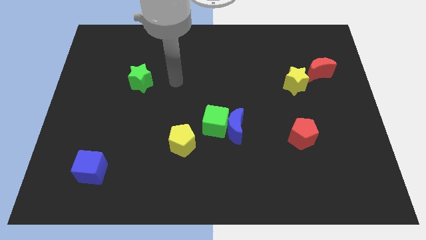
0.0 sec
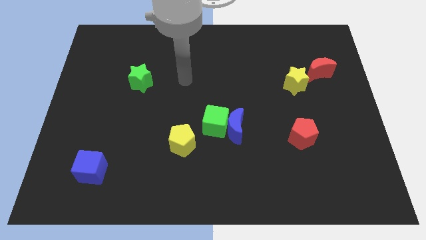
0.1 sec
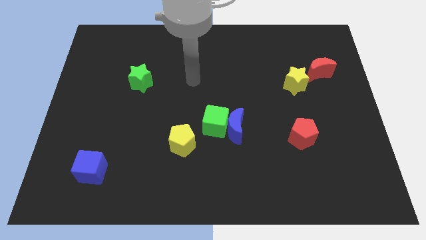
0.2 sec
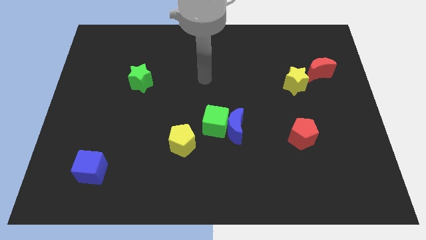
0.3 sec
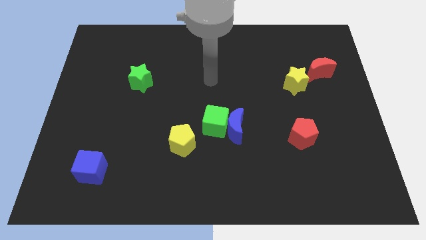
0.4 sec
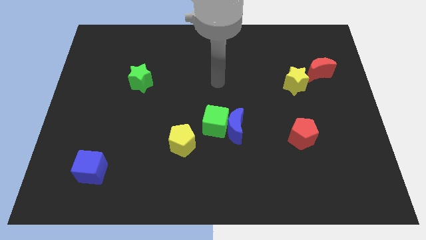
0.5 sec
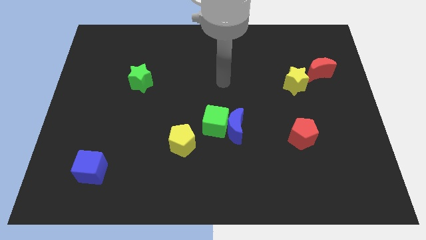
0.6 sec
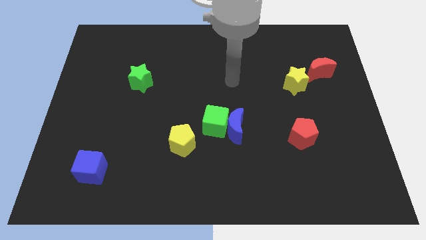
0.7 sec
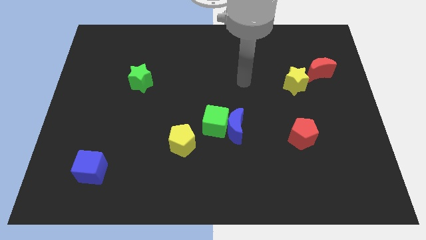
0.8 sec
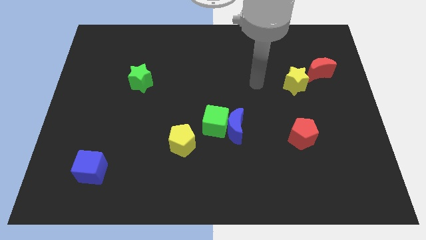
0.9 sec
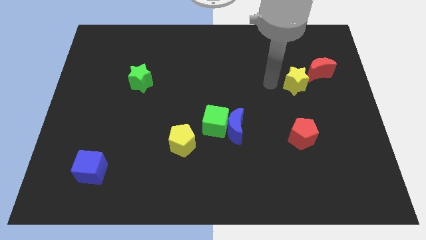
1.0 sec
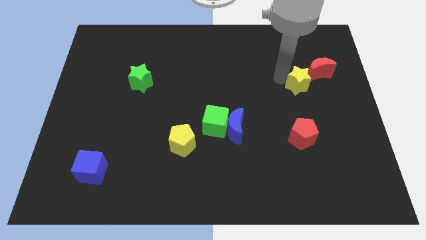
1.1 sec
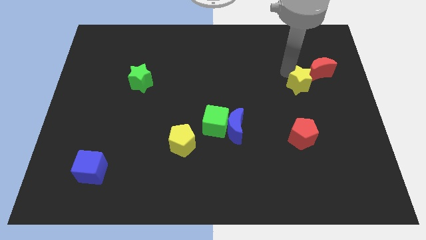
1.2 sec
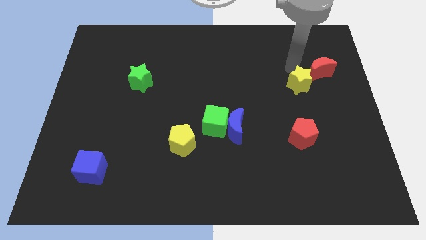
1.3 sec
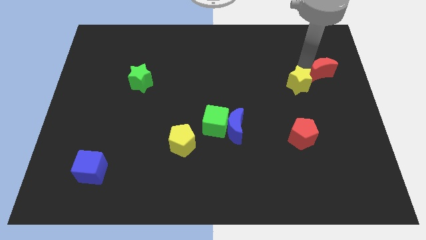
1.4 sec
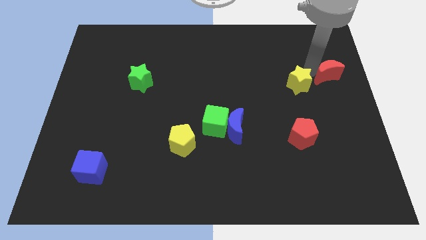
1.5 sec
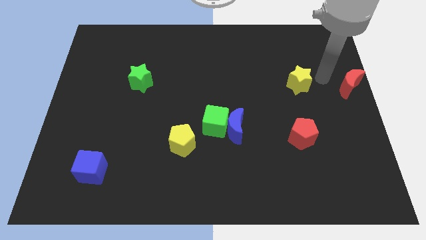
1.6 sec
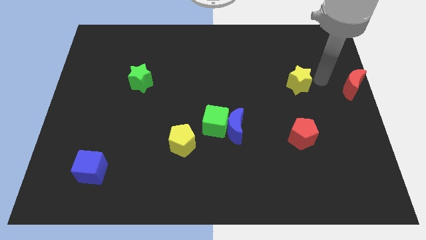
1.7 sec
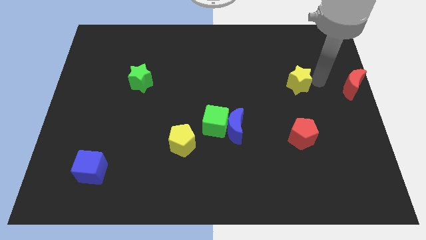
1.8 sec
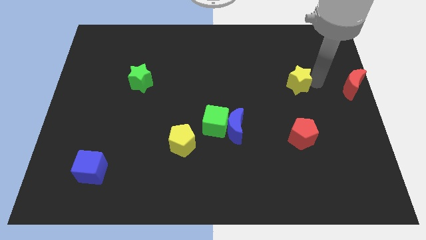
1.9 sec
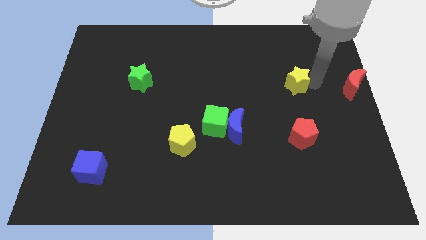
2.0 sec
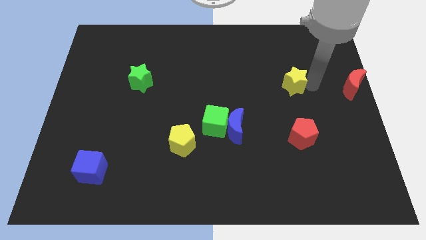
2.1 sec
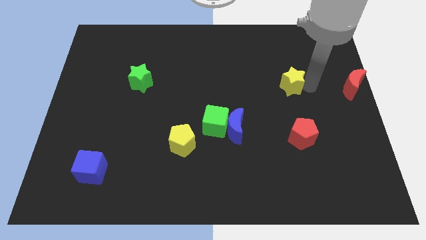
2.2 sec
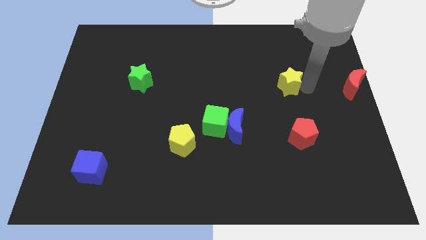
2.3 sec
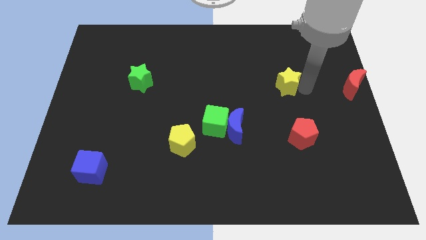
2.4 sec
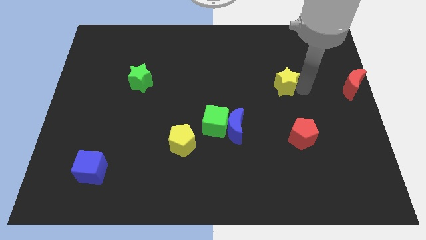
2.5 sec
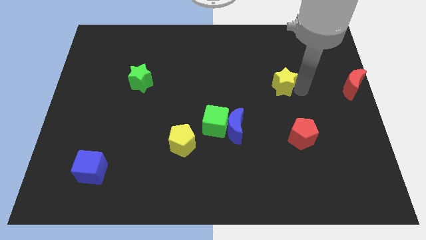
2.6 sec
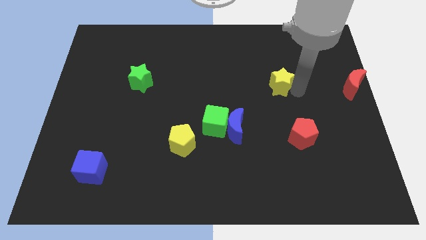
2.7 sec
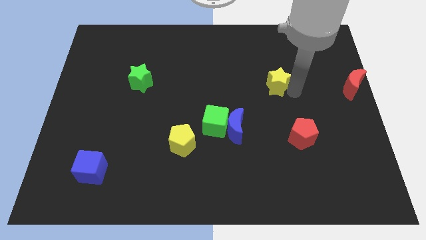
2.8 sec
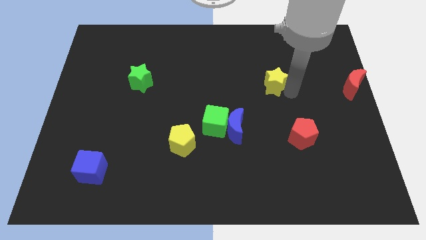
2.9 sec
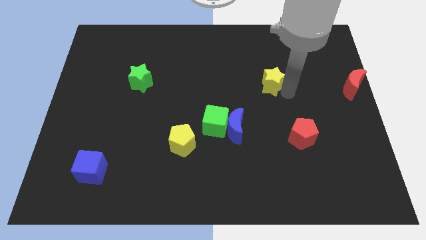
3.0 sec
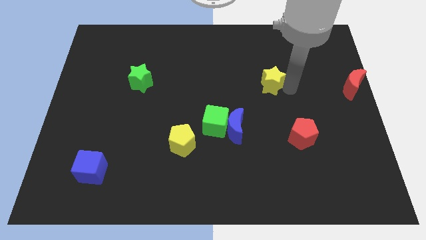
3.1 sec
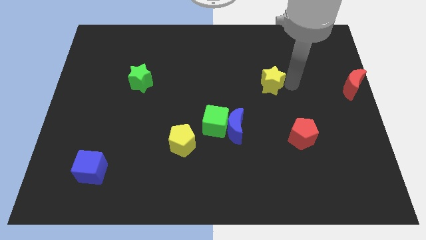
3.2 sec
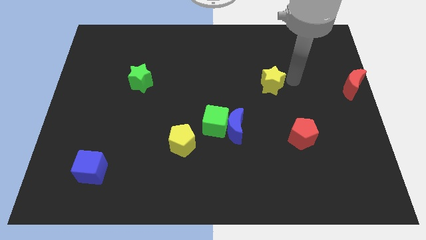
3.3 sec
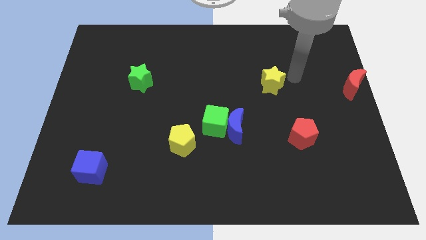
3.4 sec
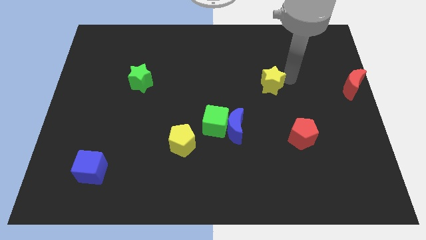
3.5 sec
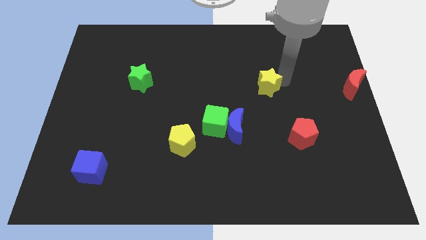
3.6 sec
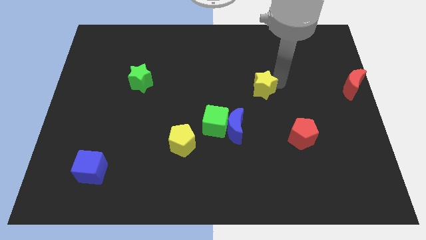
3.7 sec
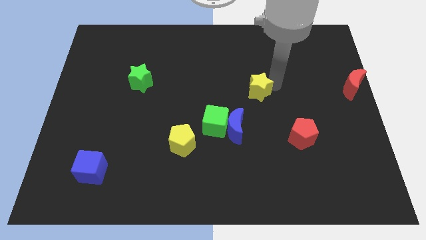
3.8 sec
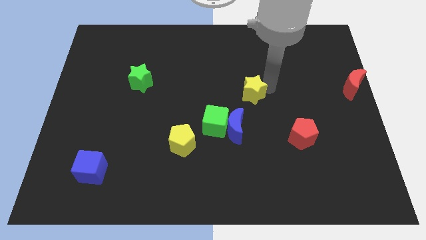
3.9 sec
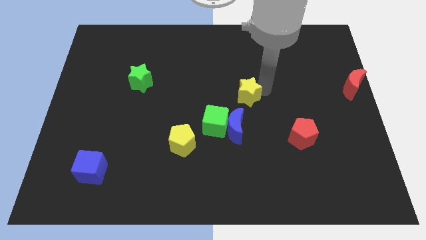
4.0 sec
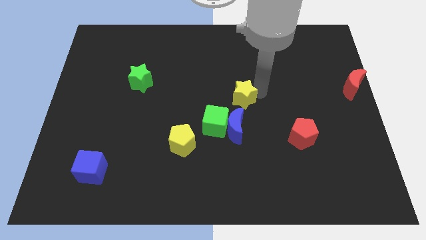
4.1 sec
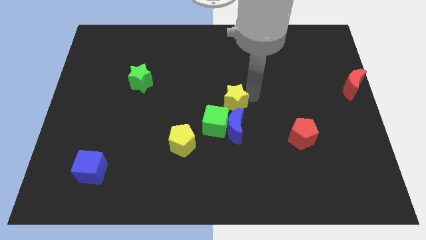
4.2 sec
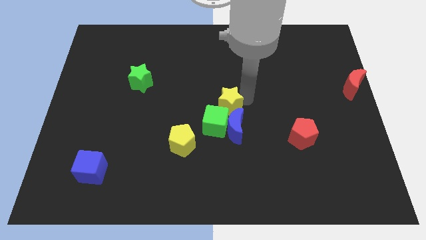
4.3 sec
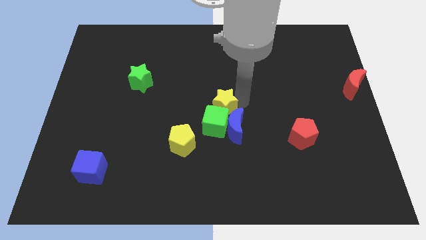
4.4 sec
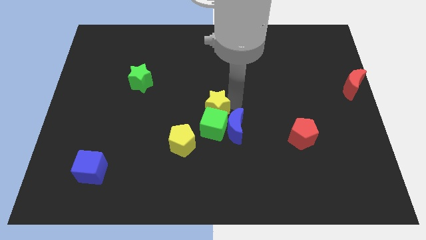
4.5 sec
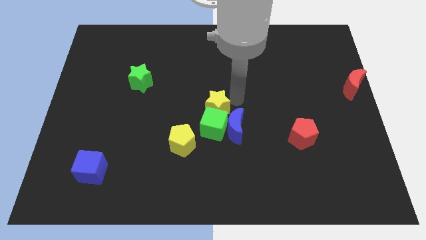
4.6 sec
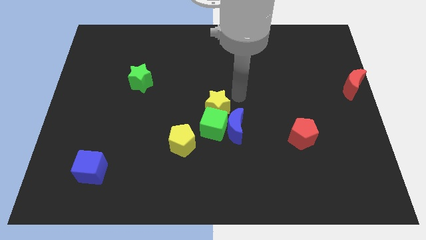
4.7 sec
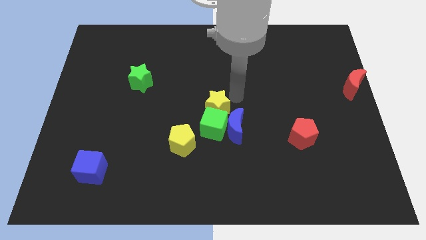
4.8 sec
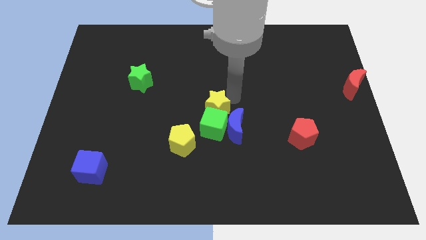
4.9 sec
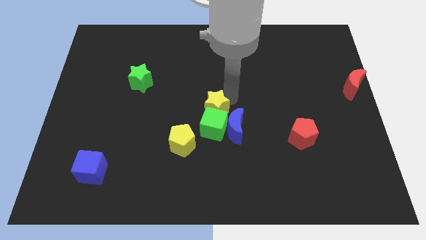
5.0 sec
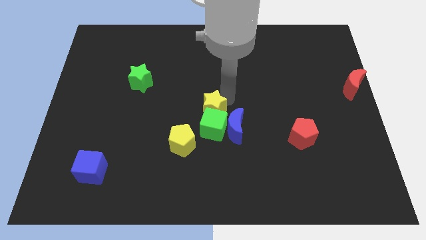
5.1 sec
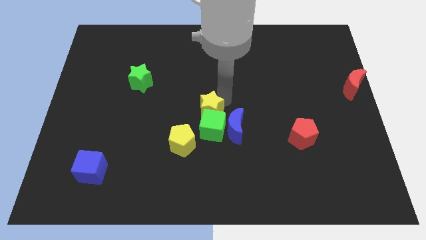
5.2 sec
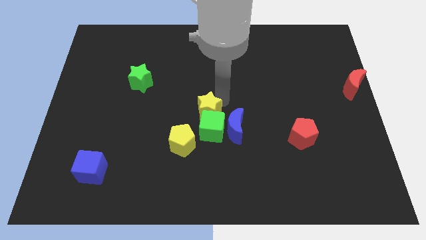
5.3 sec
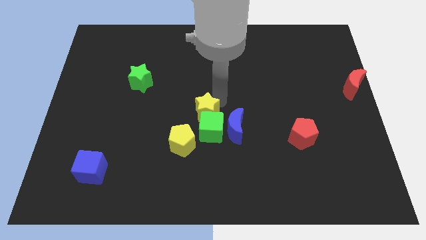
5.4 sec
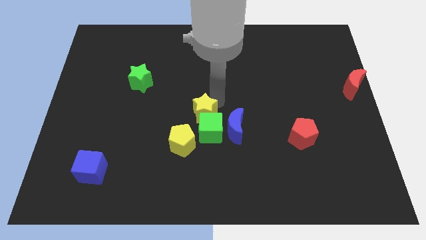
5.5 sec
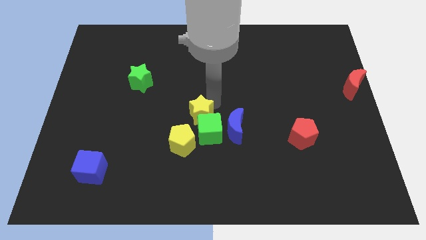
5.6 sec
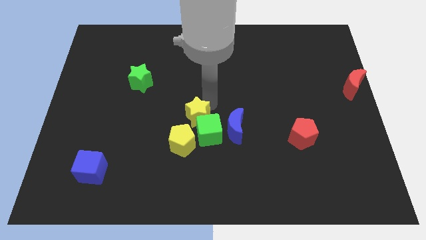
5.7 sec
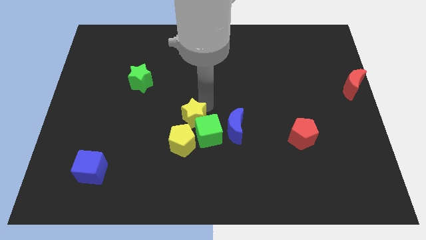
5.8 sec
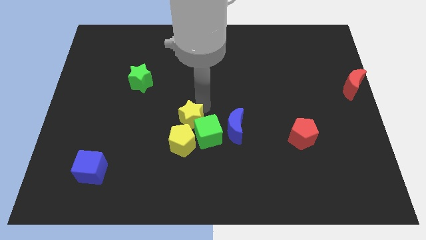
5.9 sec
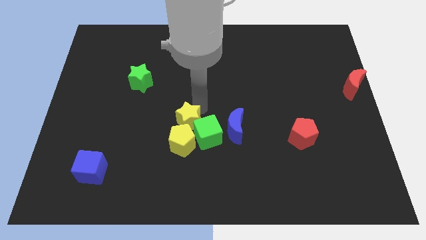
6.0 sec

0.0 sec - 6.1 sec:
push the yellow star close to the yellow pentagon
